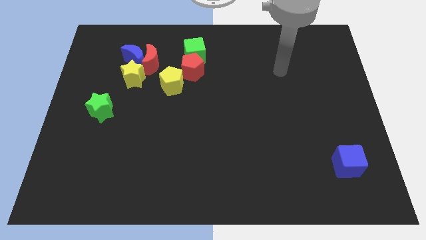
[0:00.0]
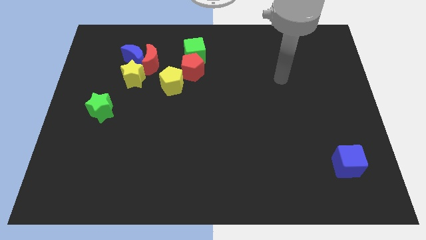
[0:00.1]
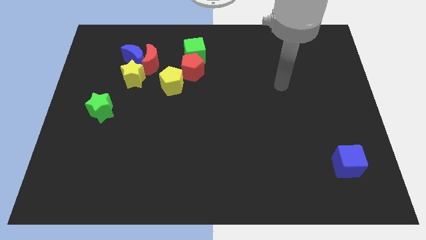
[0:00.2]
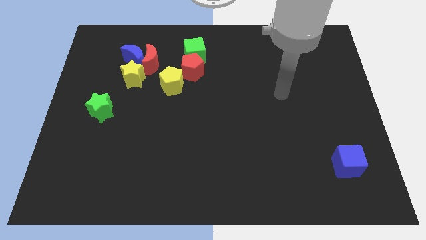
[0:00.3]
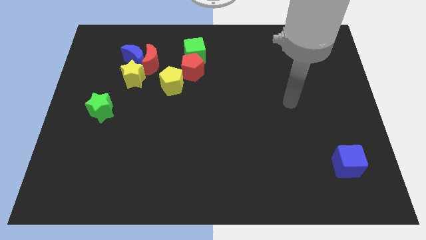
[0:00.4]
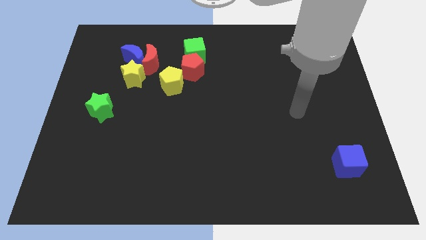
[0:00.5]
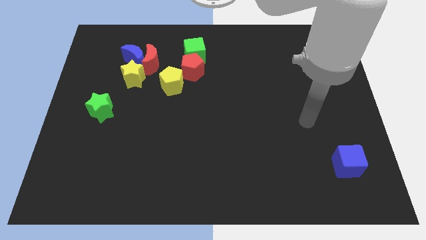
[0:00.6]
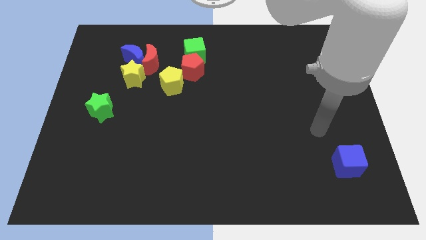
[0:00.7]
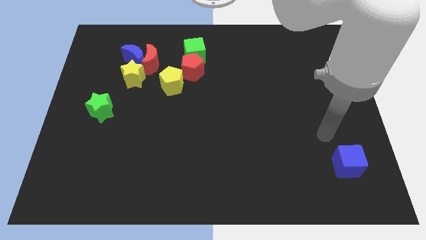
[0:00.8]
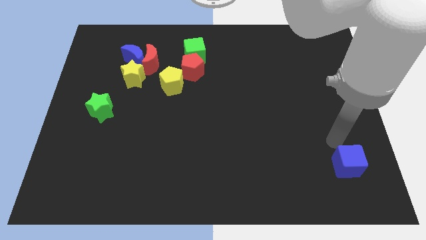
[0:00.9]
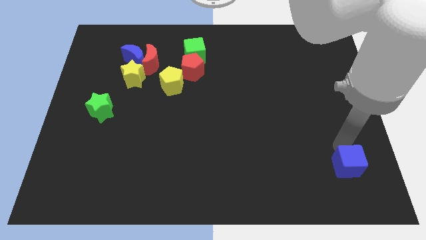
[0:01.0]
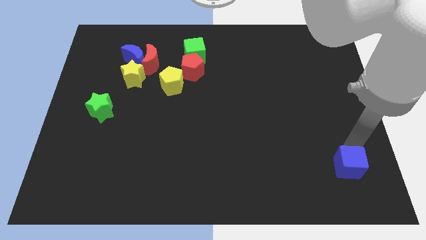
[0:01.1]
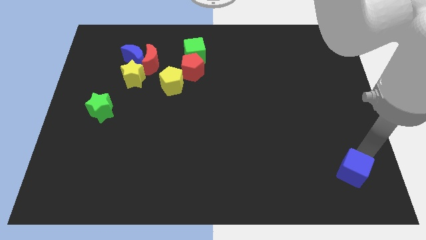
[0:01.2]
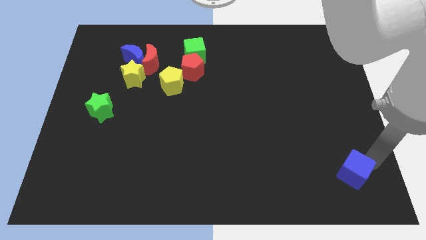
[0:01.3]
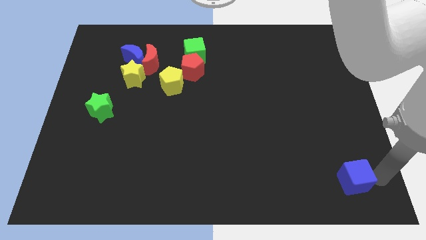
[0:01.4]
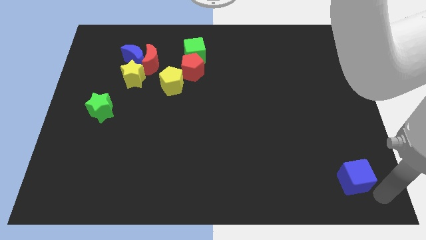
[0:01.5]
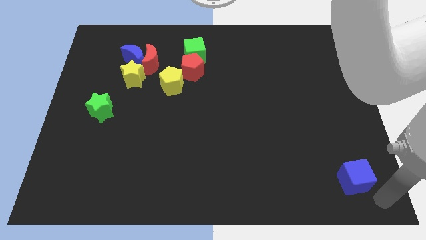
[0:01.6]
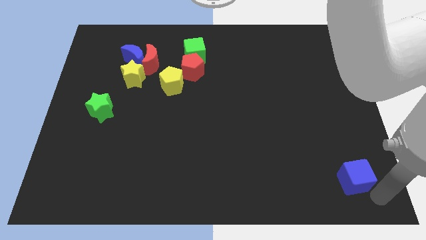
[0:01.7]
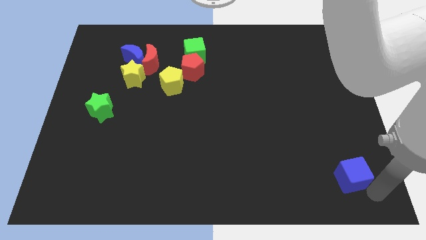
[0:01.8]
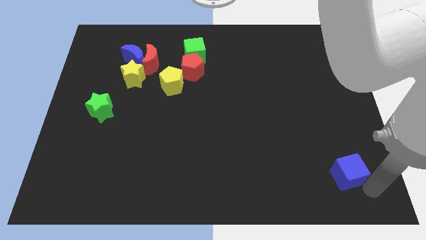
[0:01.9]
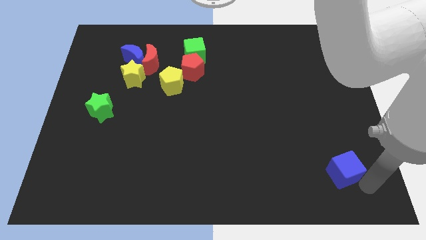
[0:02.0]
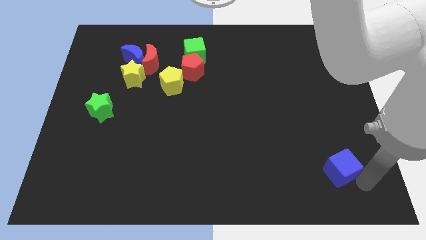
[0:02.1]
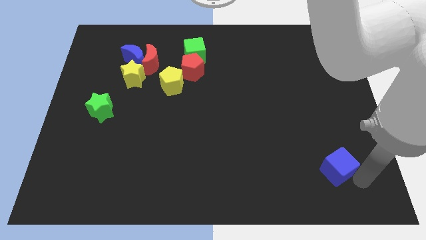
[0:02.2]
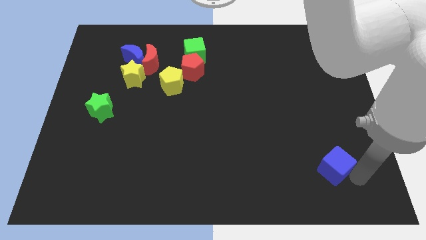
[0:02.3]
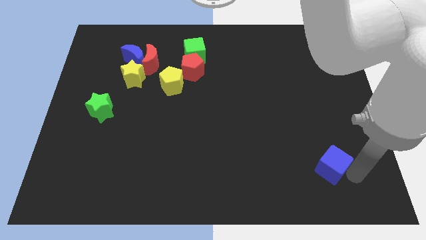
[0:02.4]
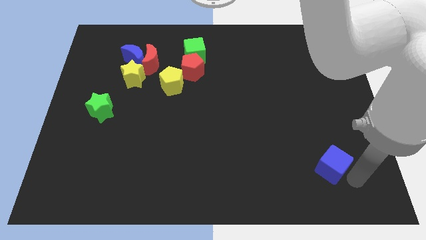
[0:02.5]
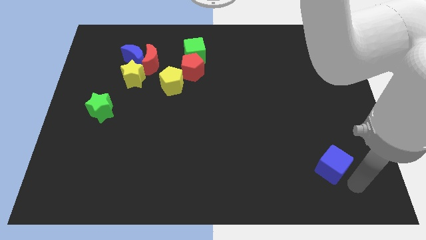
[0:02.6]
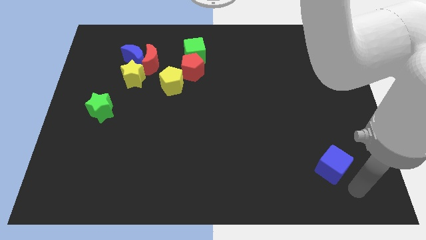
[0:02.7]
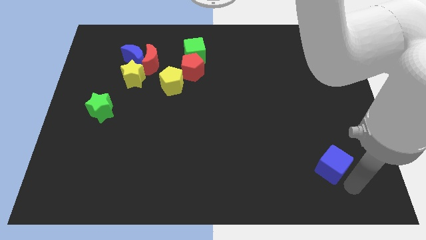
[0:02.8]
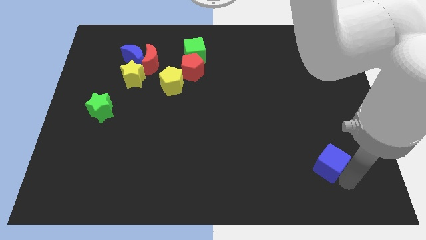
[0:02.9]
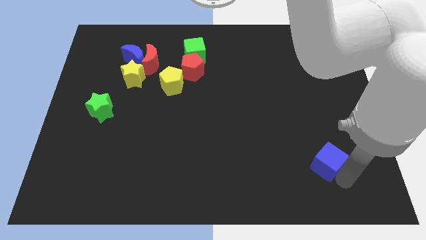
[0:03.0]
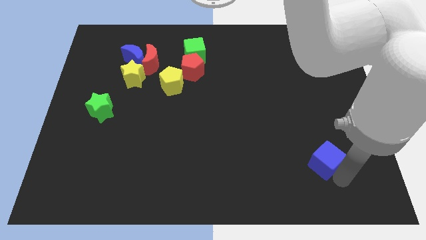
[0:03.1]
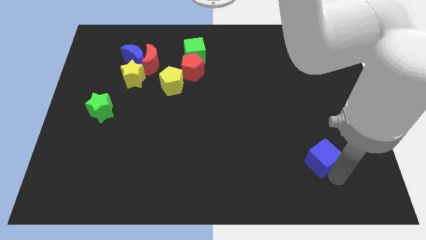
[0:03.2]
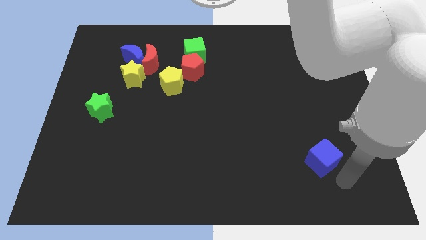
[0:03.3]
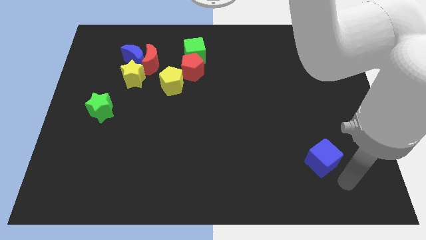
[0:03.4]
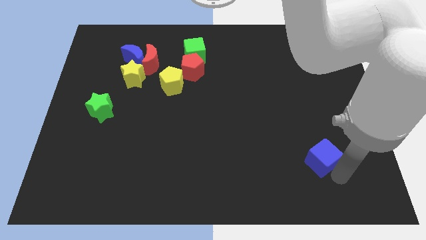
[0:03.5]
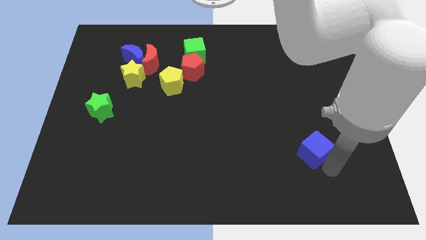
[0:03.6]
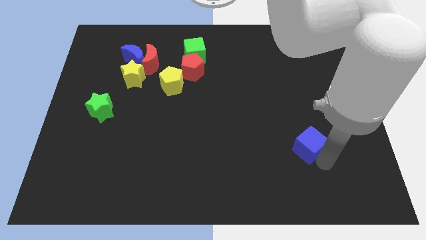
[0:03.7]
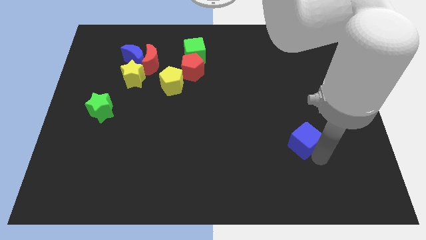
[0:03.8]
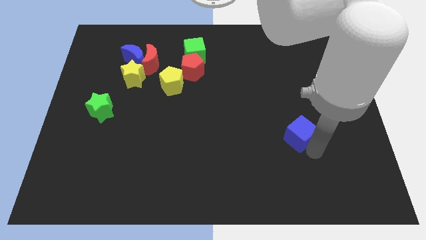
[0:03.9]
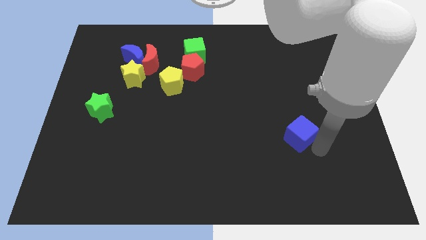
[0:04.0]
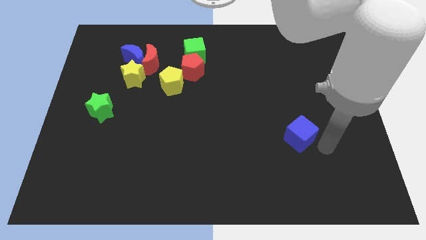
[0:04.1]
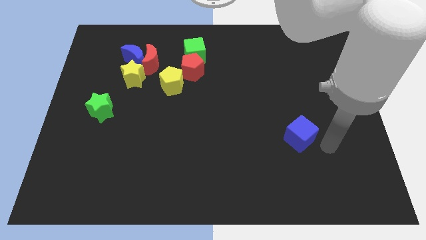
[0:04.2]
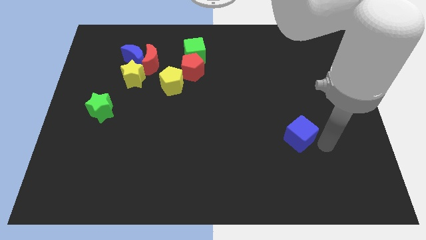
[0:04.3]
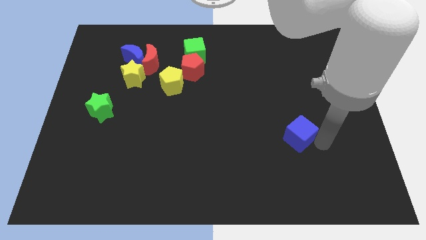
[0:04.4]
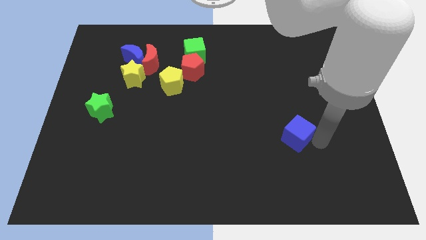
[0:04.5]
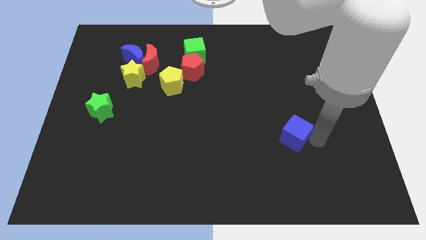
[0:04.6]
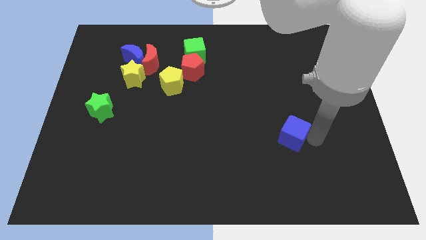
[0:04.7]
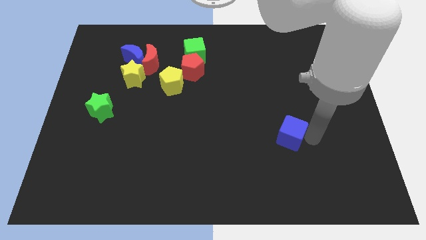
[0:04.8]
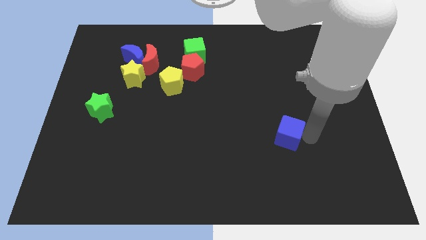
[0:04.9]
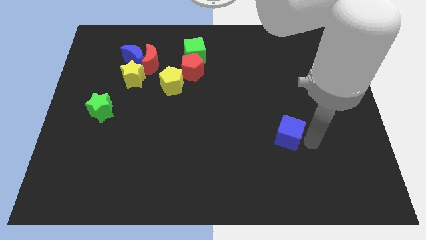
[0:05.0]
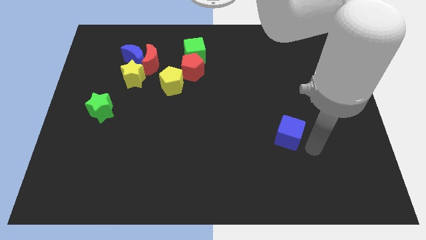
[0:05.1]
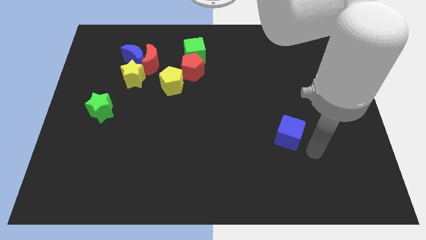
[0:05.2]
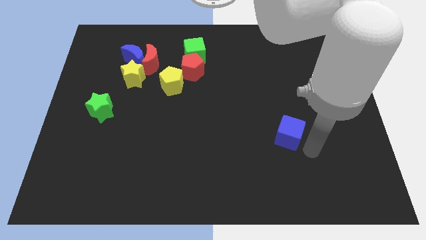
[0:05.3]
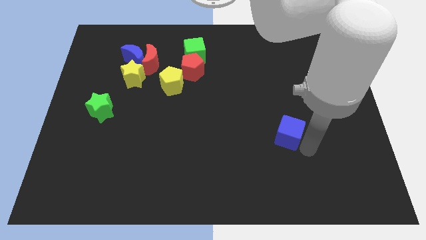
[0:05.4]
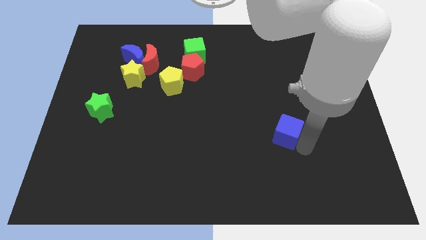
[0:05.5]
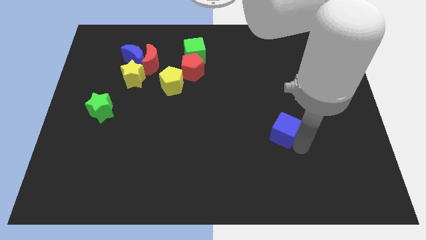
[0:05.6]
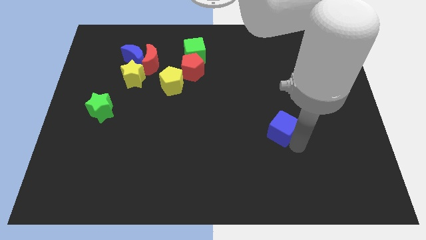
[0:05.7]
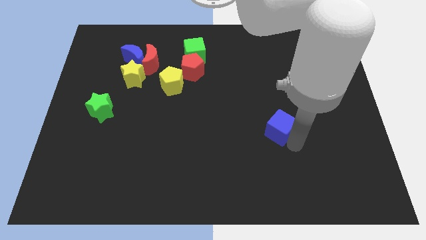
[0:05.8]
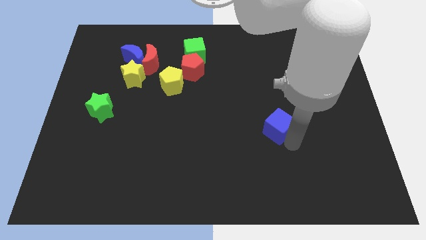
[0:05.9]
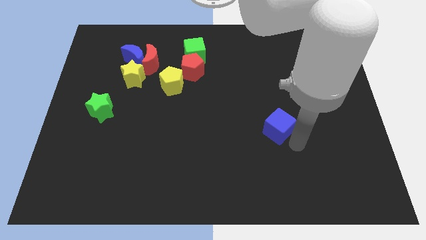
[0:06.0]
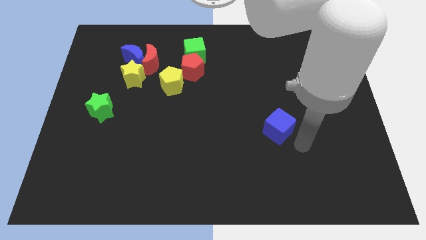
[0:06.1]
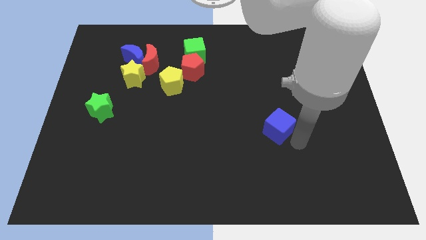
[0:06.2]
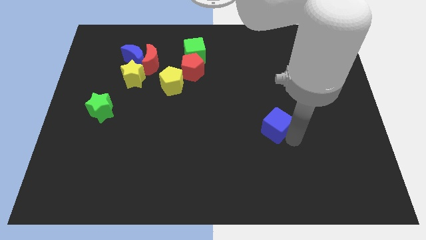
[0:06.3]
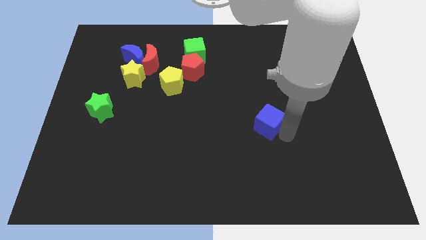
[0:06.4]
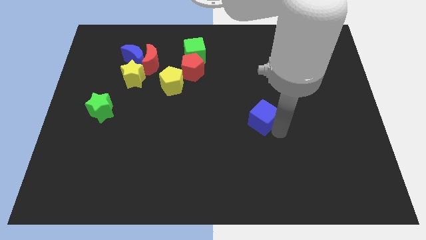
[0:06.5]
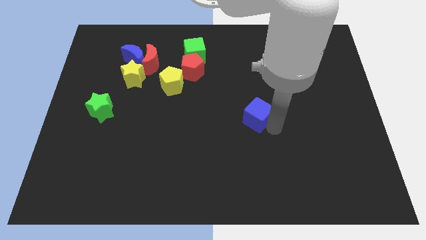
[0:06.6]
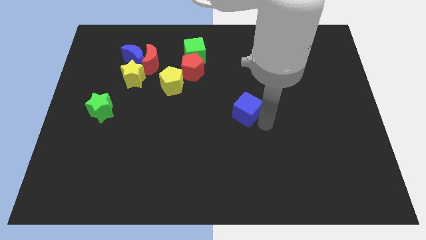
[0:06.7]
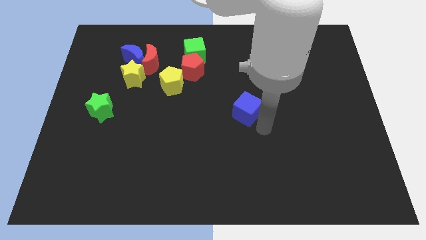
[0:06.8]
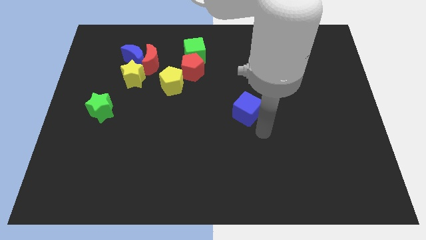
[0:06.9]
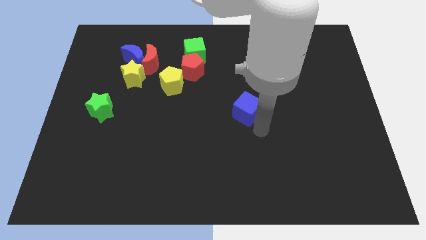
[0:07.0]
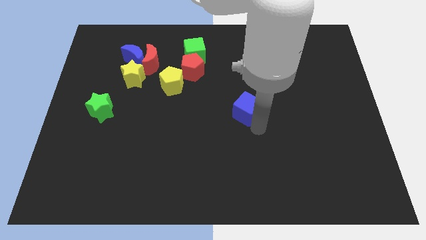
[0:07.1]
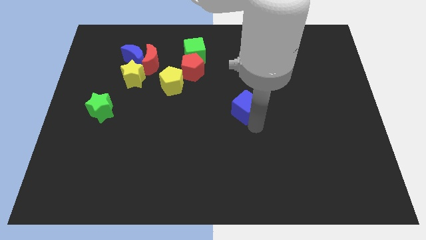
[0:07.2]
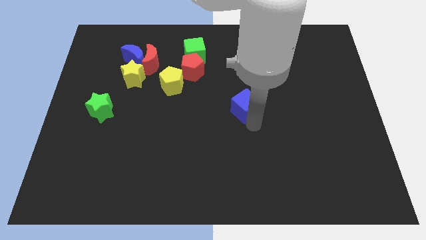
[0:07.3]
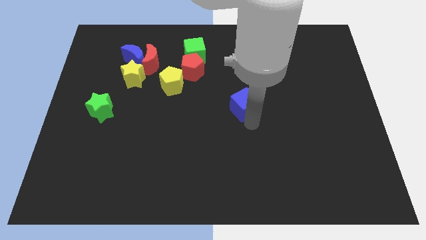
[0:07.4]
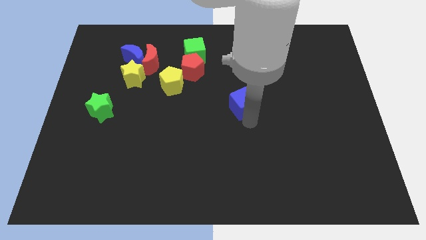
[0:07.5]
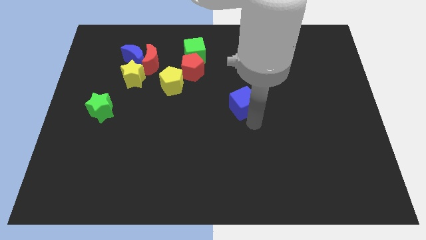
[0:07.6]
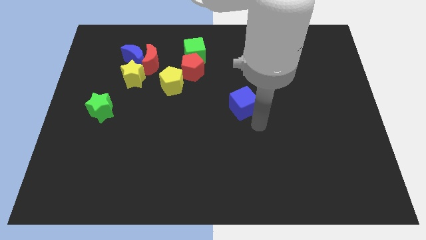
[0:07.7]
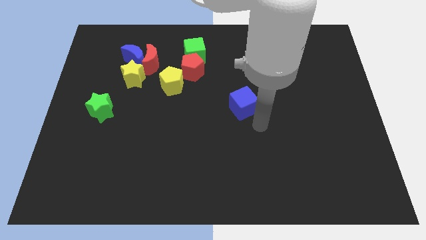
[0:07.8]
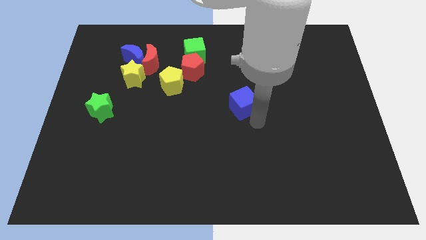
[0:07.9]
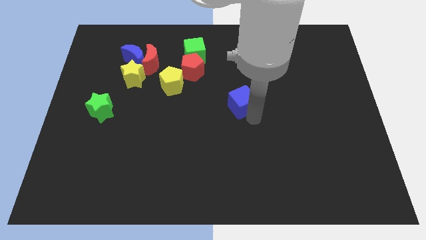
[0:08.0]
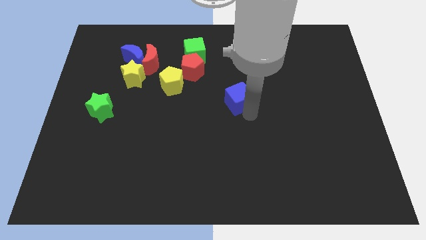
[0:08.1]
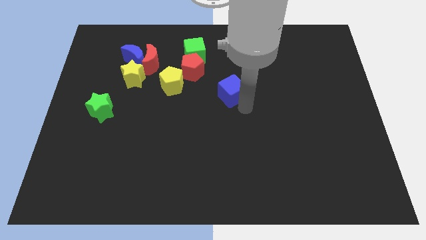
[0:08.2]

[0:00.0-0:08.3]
move the blue cube to the bottom right of the red pentagon
